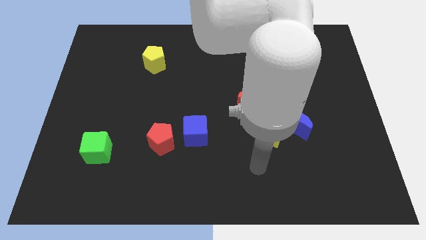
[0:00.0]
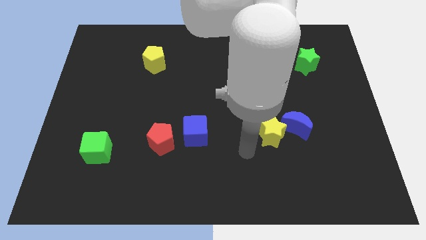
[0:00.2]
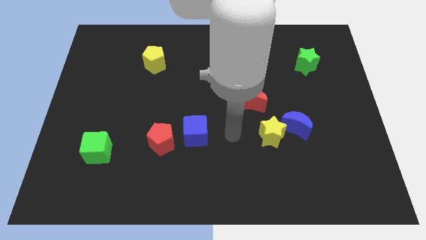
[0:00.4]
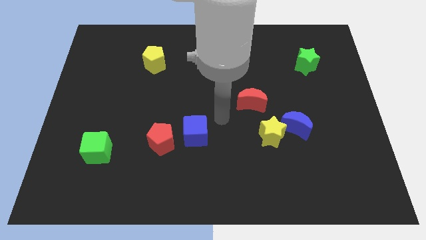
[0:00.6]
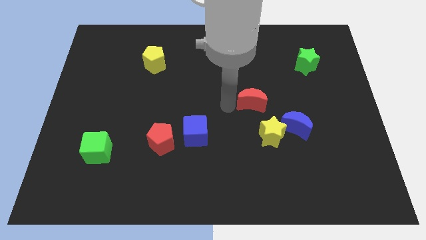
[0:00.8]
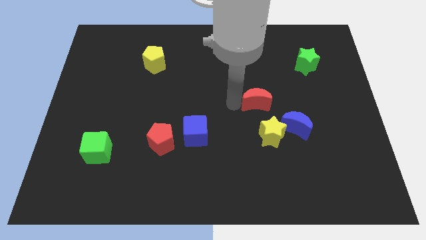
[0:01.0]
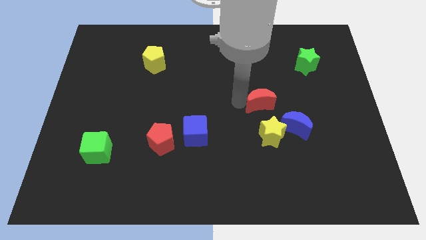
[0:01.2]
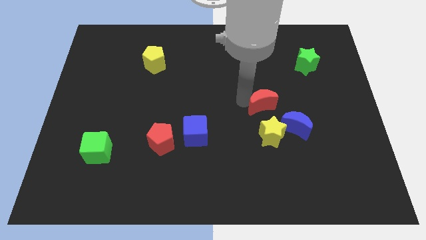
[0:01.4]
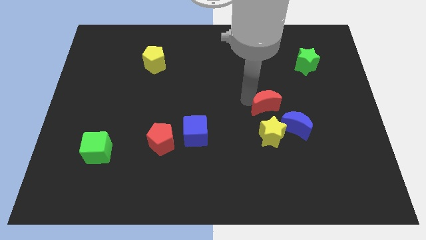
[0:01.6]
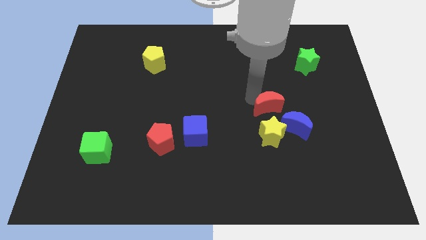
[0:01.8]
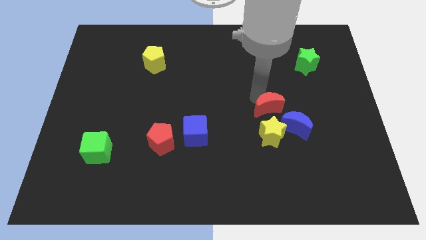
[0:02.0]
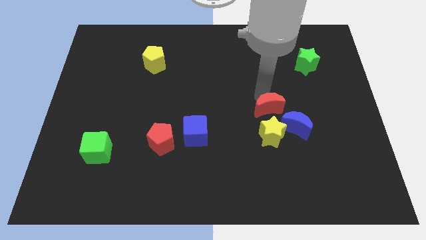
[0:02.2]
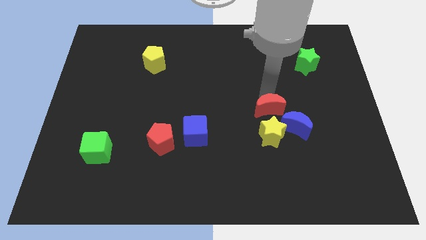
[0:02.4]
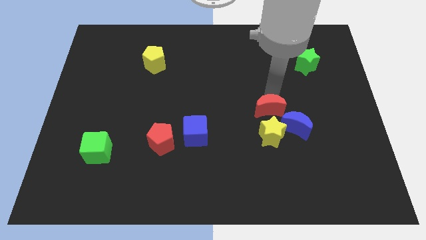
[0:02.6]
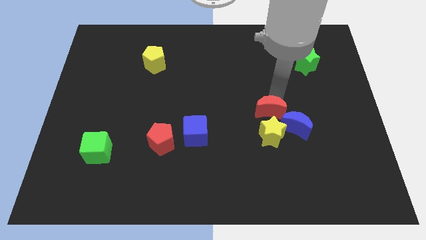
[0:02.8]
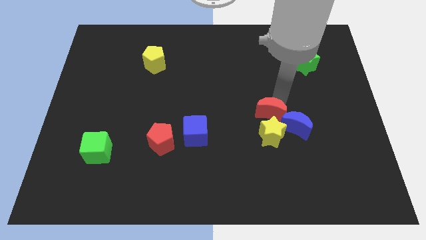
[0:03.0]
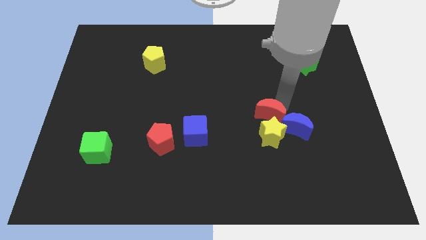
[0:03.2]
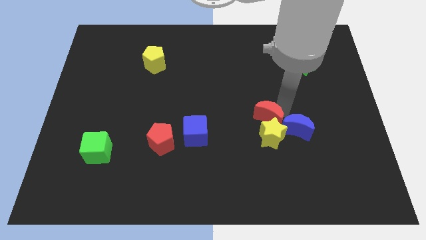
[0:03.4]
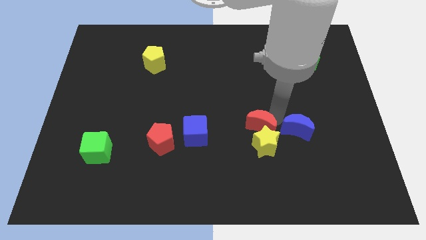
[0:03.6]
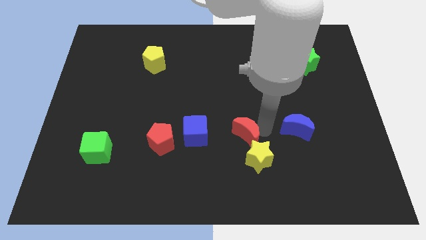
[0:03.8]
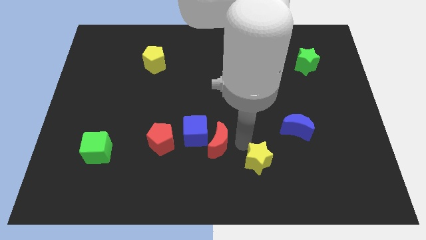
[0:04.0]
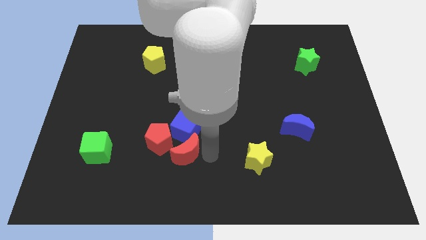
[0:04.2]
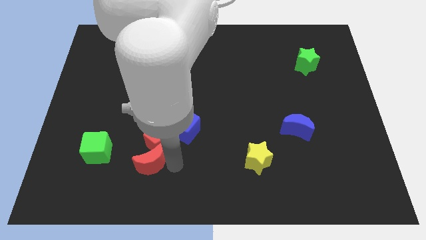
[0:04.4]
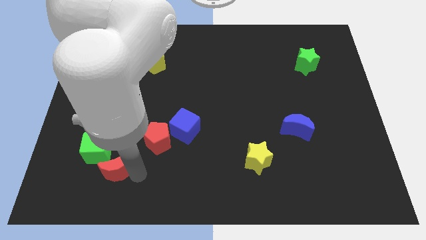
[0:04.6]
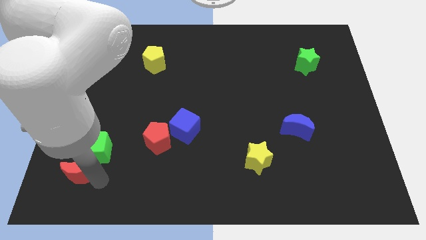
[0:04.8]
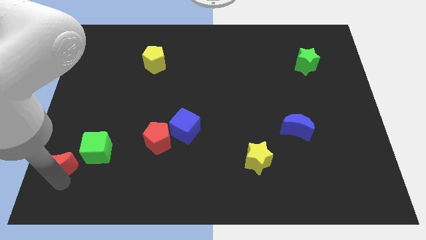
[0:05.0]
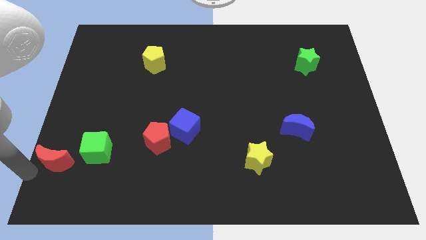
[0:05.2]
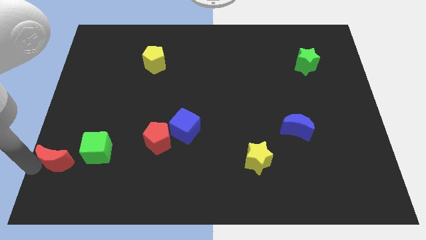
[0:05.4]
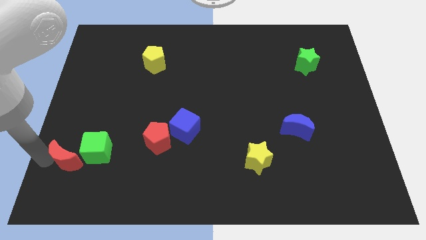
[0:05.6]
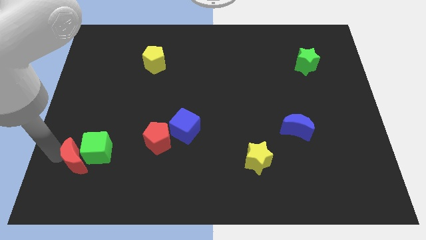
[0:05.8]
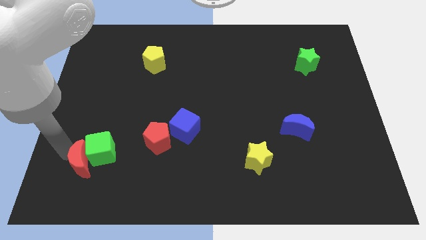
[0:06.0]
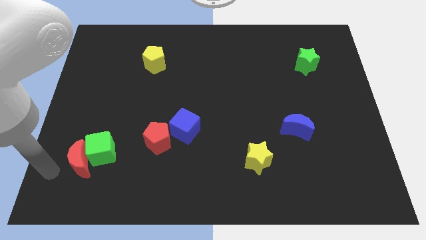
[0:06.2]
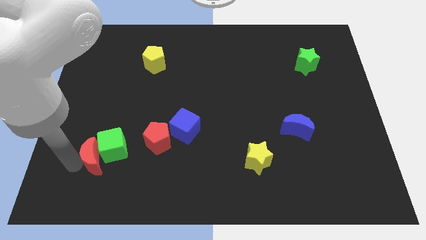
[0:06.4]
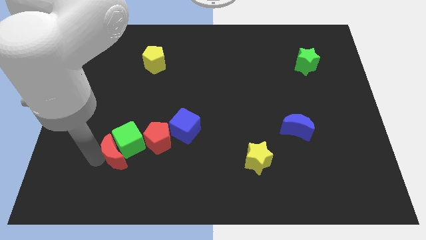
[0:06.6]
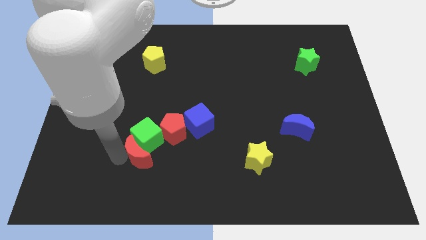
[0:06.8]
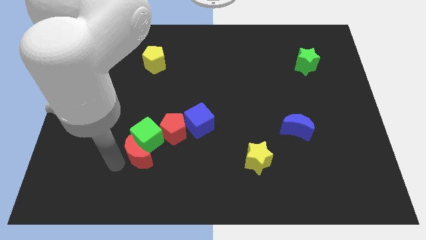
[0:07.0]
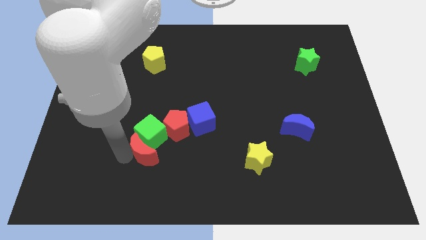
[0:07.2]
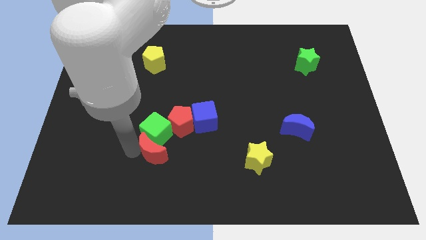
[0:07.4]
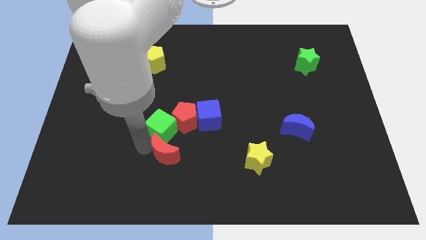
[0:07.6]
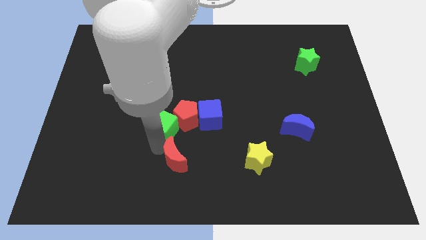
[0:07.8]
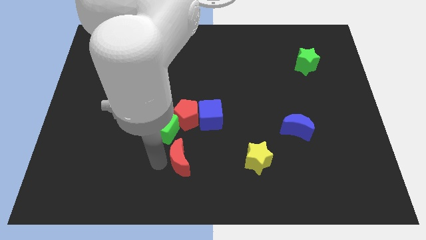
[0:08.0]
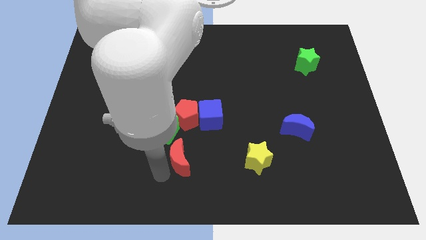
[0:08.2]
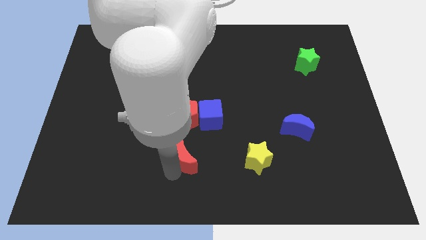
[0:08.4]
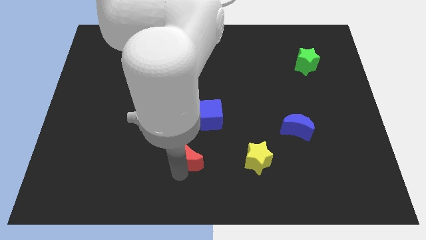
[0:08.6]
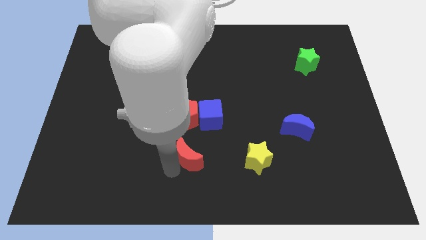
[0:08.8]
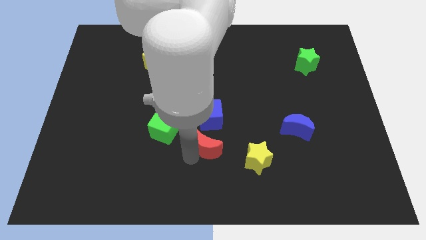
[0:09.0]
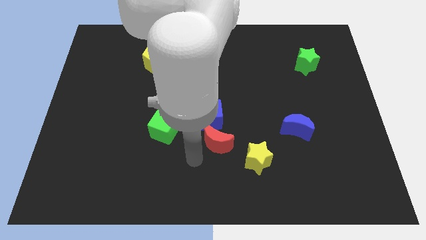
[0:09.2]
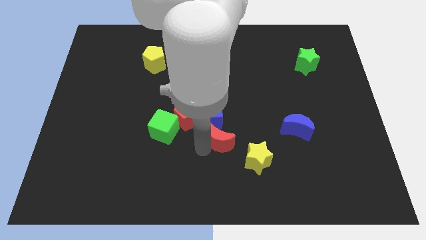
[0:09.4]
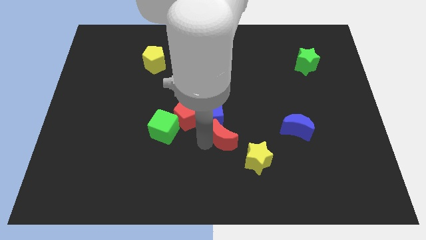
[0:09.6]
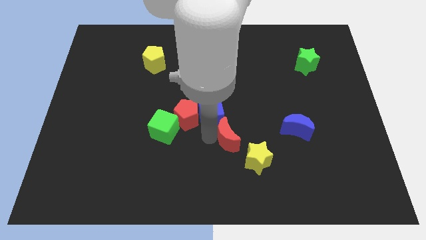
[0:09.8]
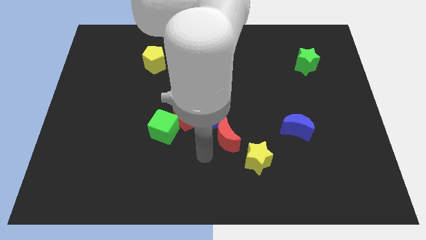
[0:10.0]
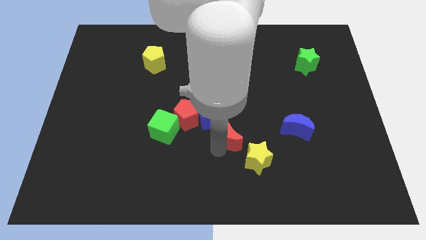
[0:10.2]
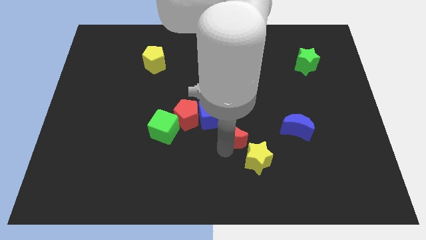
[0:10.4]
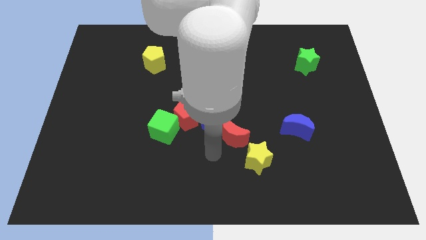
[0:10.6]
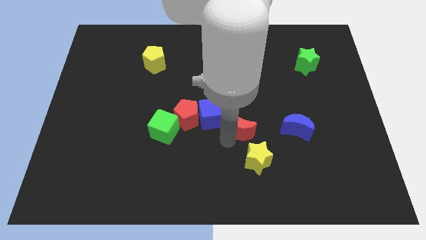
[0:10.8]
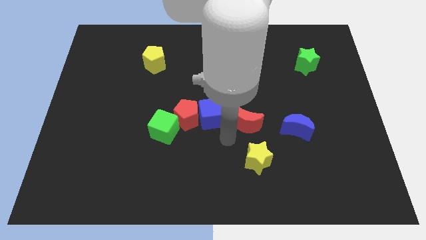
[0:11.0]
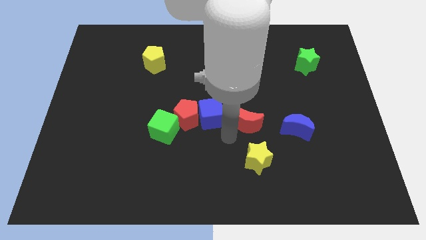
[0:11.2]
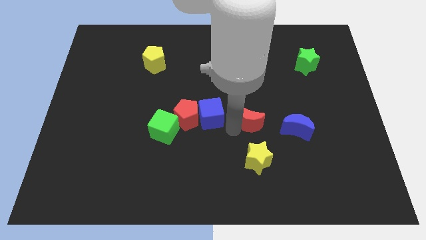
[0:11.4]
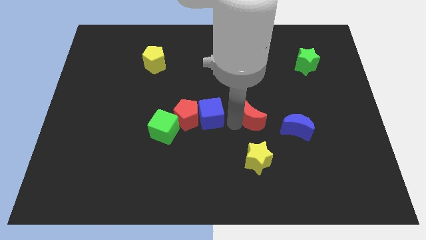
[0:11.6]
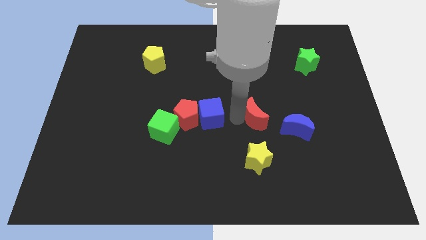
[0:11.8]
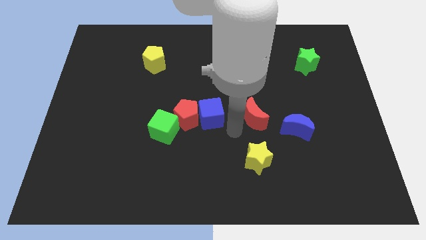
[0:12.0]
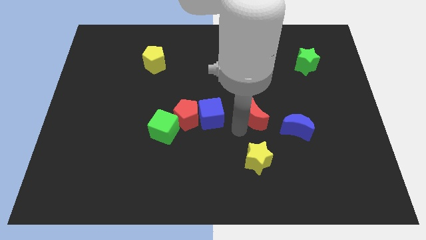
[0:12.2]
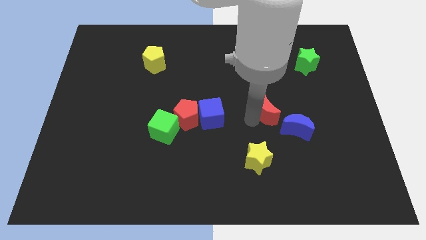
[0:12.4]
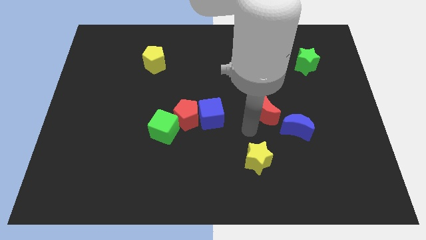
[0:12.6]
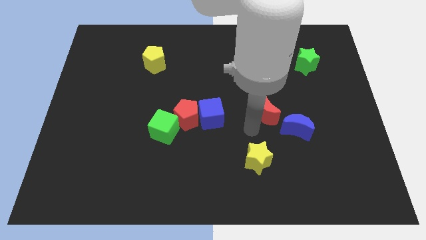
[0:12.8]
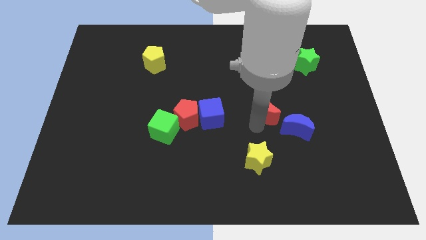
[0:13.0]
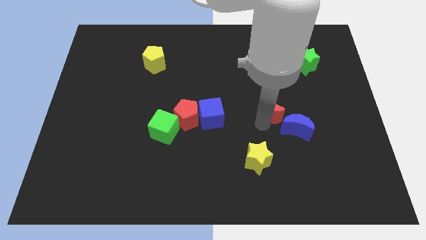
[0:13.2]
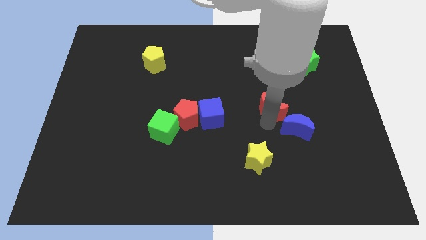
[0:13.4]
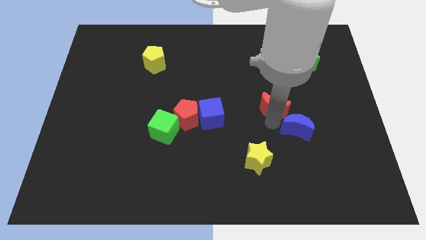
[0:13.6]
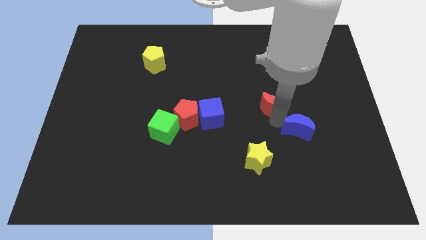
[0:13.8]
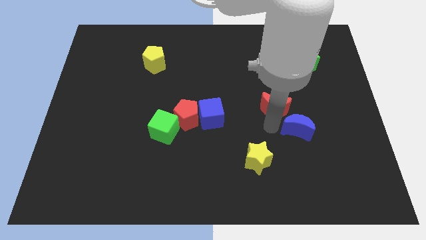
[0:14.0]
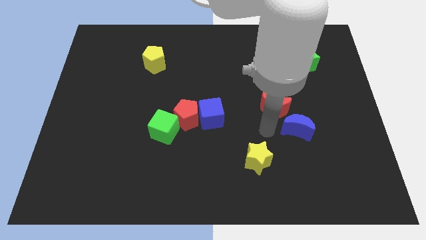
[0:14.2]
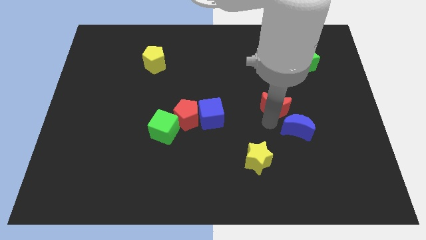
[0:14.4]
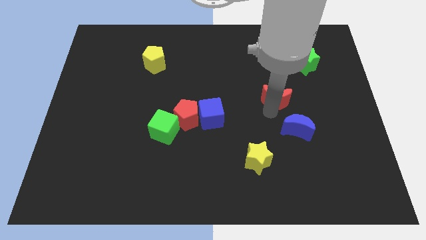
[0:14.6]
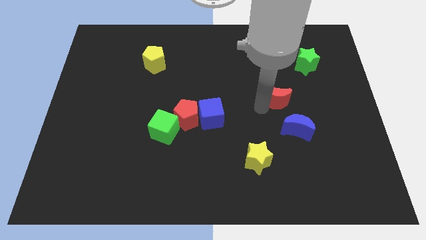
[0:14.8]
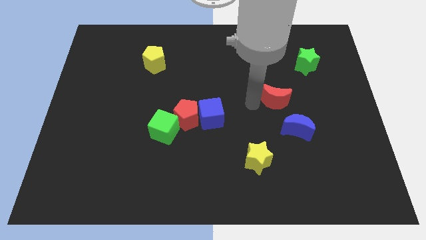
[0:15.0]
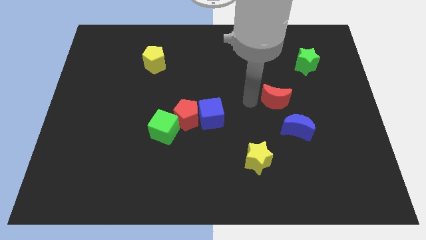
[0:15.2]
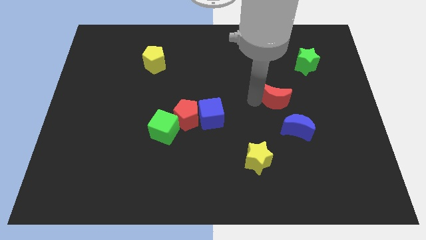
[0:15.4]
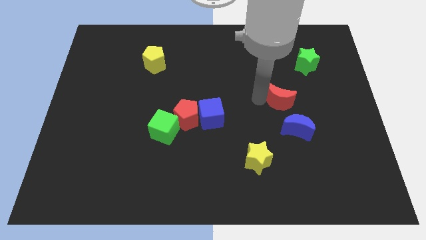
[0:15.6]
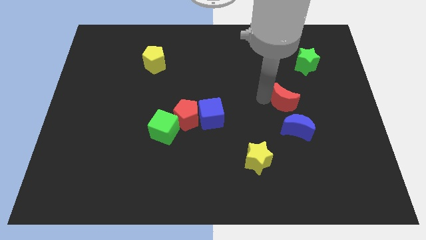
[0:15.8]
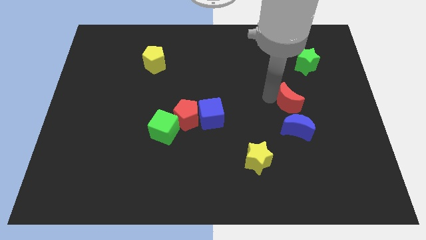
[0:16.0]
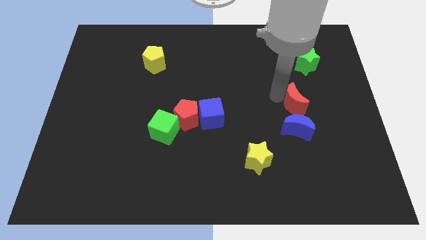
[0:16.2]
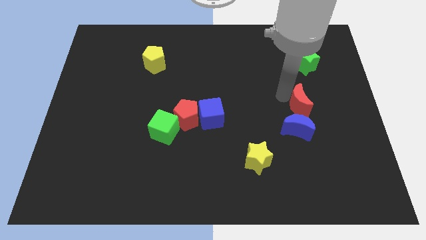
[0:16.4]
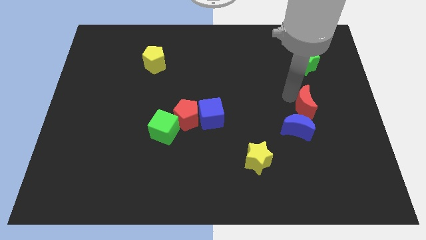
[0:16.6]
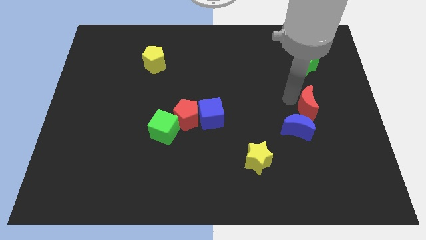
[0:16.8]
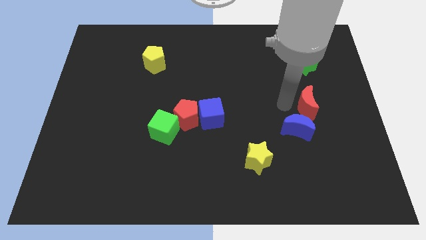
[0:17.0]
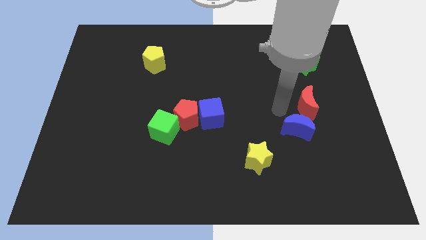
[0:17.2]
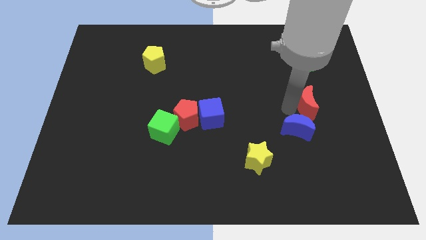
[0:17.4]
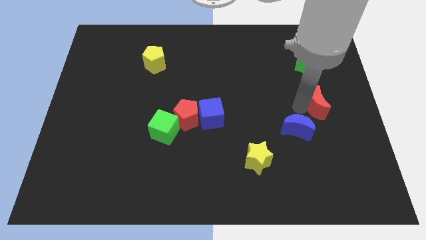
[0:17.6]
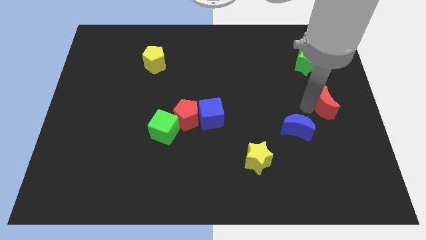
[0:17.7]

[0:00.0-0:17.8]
move the red moon to the right side of the board
